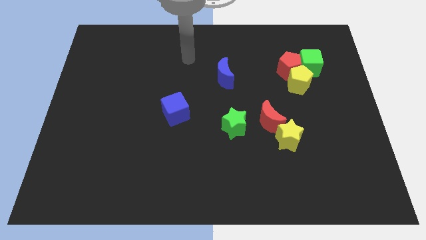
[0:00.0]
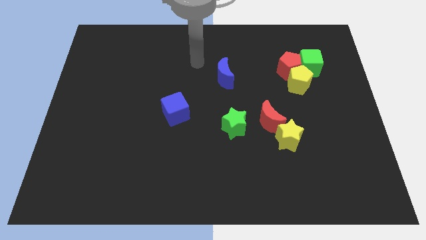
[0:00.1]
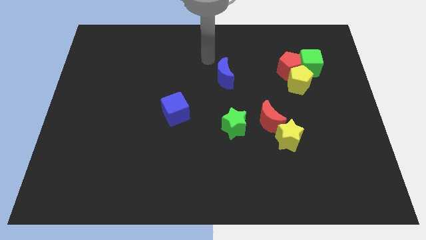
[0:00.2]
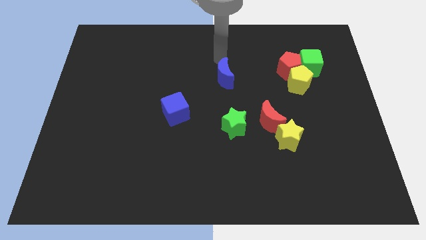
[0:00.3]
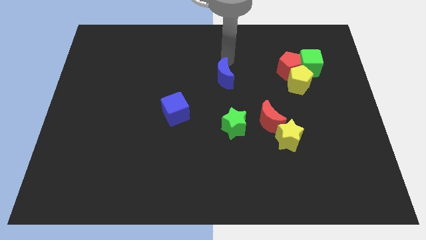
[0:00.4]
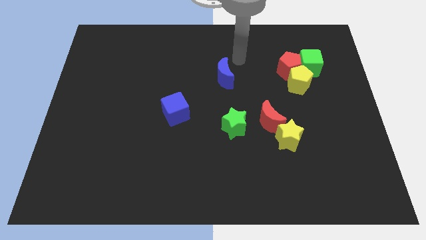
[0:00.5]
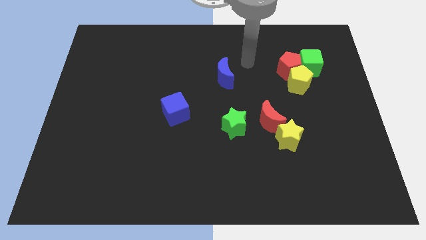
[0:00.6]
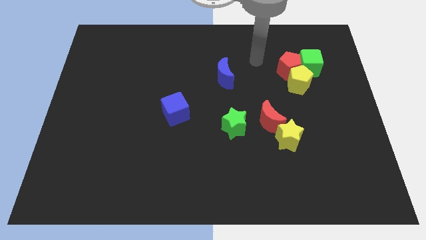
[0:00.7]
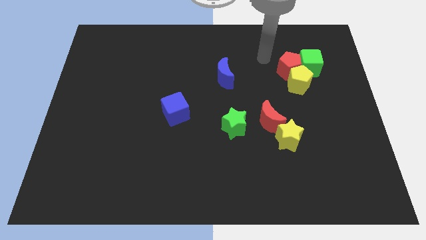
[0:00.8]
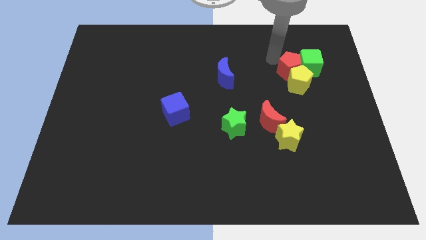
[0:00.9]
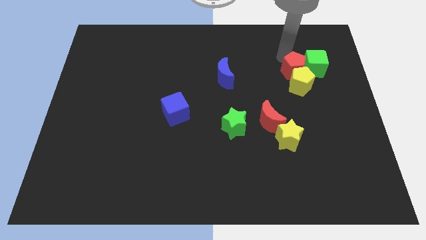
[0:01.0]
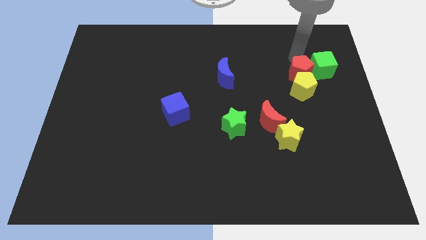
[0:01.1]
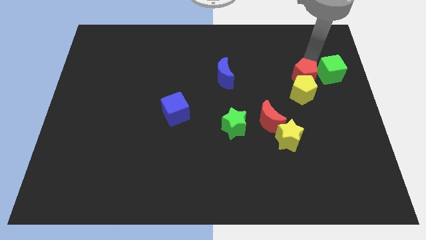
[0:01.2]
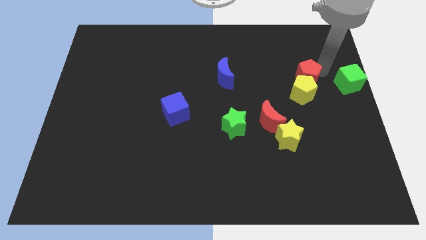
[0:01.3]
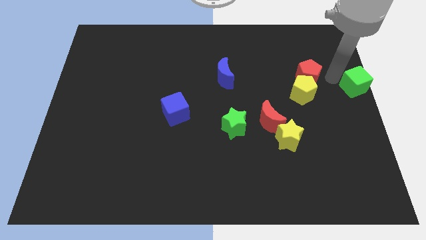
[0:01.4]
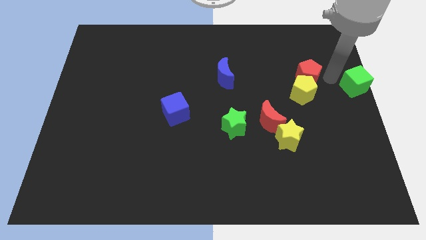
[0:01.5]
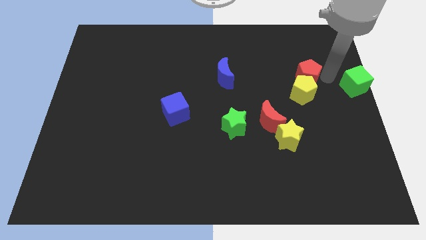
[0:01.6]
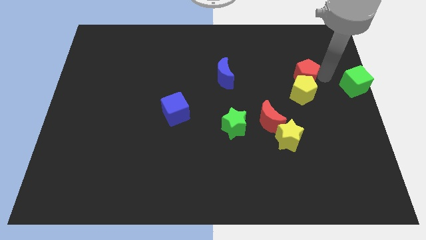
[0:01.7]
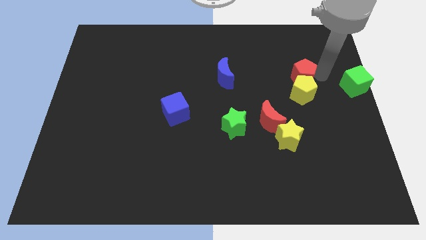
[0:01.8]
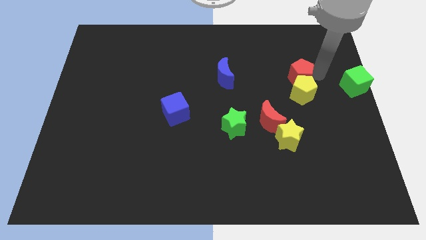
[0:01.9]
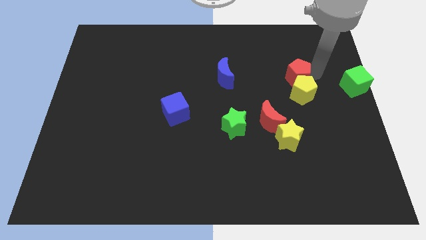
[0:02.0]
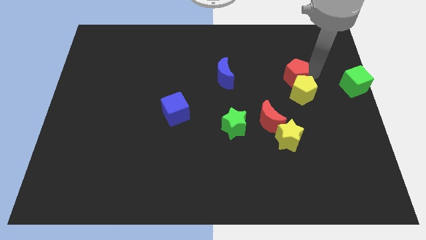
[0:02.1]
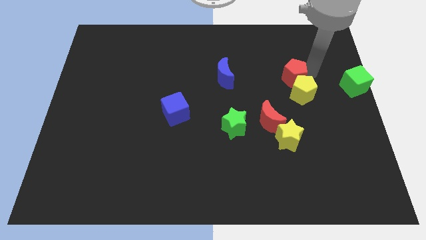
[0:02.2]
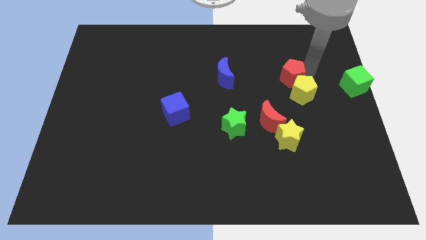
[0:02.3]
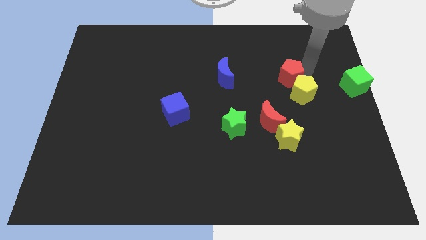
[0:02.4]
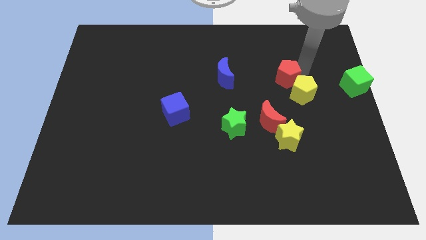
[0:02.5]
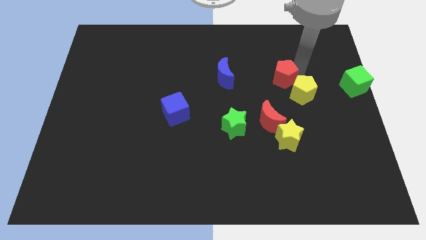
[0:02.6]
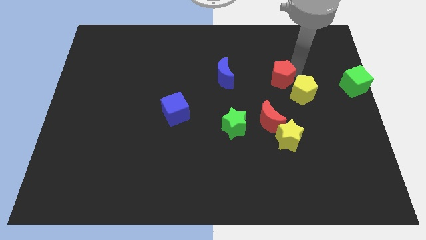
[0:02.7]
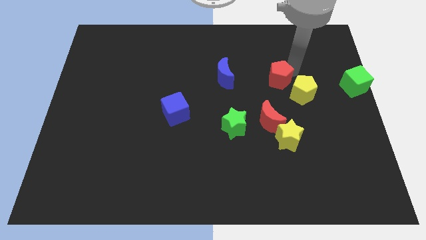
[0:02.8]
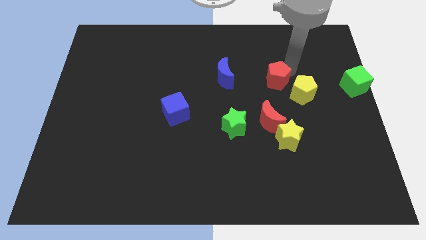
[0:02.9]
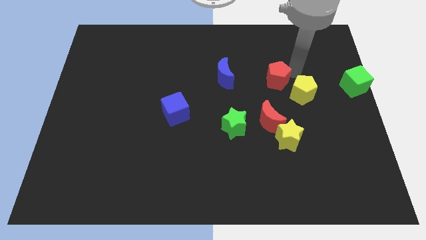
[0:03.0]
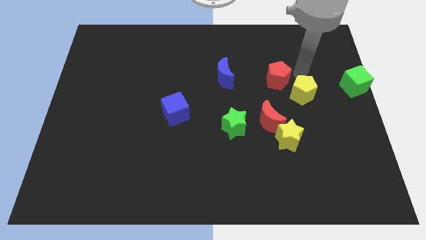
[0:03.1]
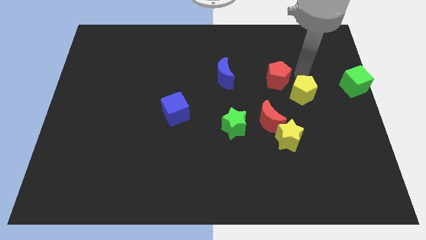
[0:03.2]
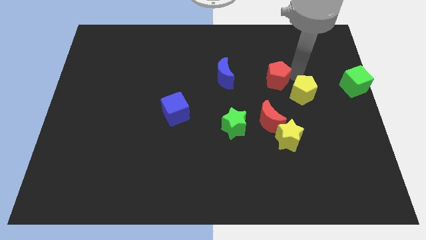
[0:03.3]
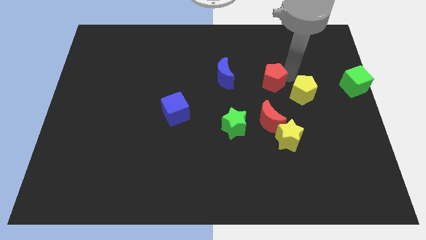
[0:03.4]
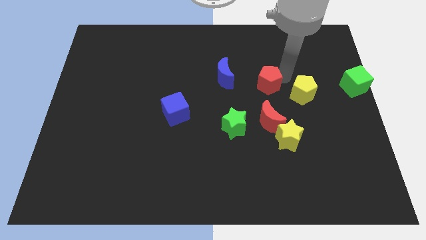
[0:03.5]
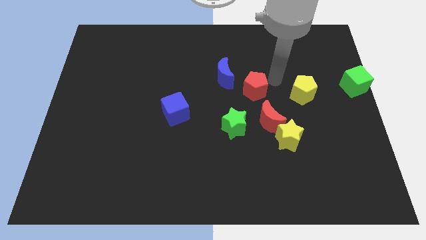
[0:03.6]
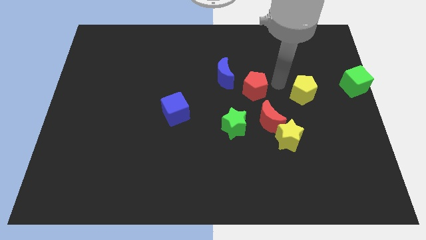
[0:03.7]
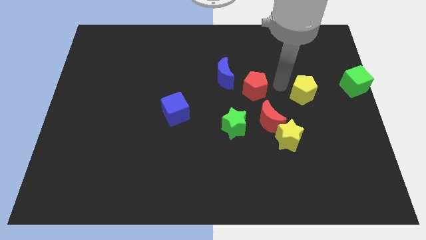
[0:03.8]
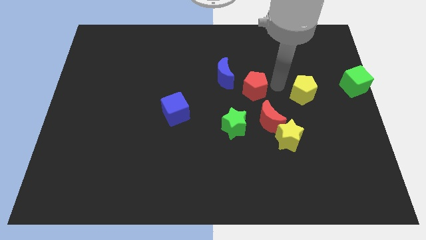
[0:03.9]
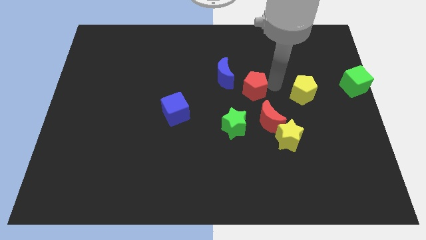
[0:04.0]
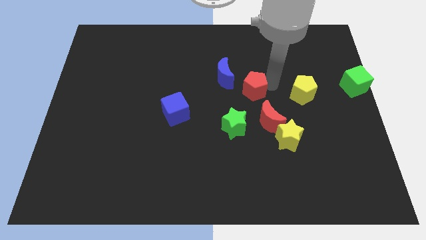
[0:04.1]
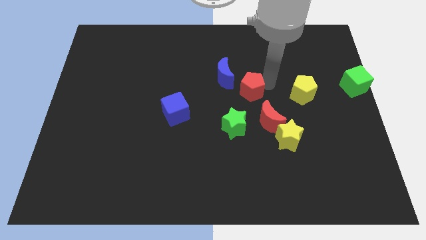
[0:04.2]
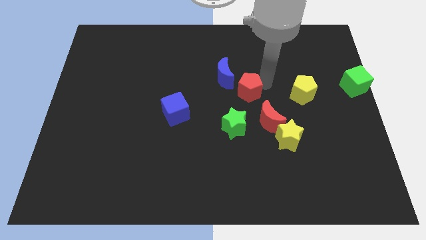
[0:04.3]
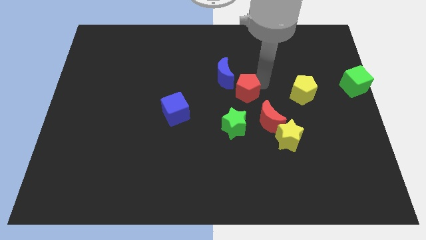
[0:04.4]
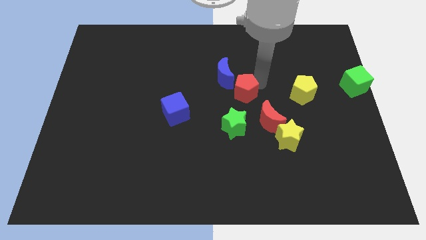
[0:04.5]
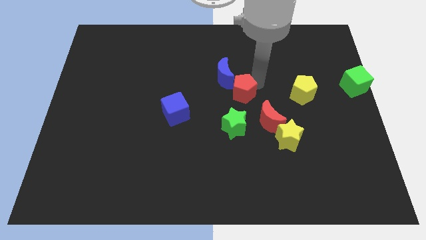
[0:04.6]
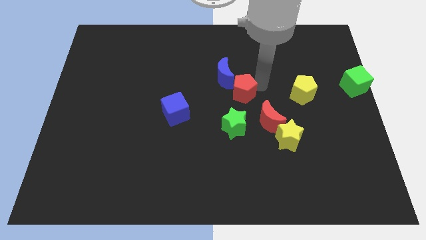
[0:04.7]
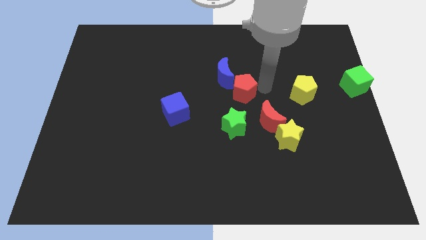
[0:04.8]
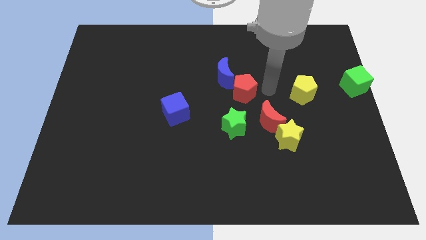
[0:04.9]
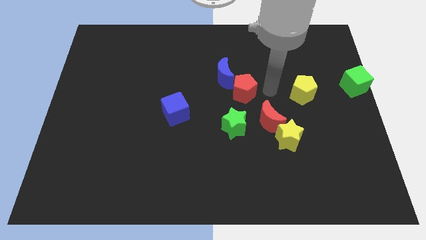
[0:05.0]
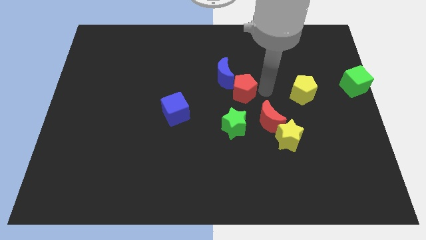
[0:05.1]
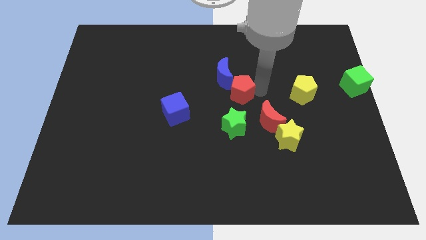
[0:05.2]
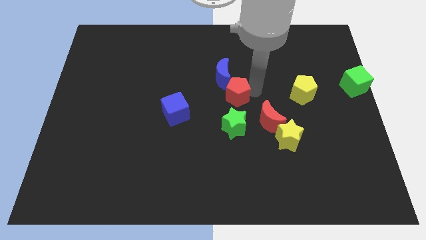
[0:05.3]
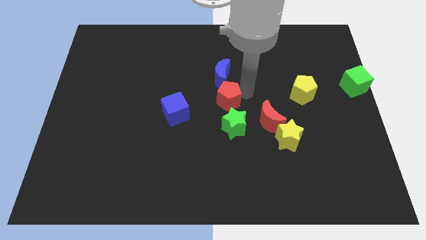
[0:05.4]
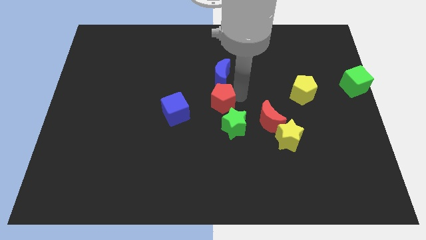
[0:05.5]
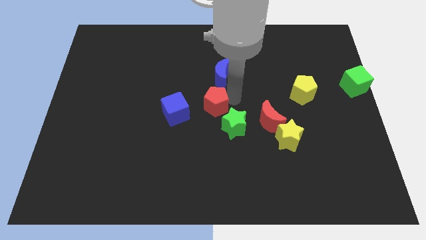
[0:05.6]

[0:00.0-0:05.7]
slide the red pentagon to the bottom left side of the blue moon

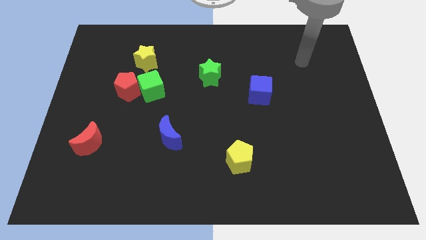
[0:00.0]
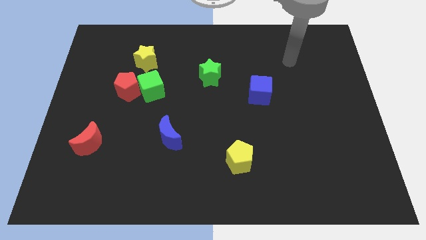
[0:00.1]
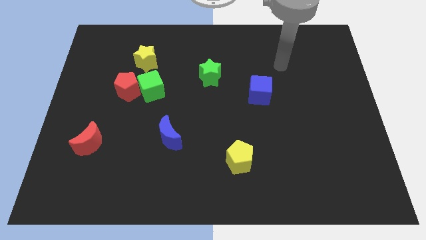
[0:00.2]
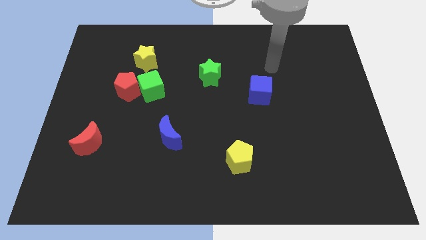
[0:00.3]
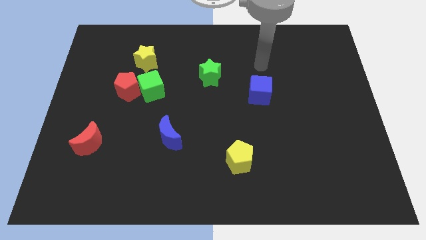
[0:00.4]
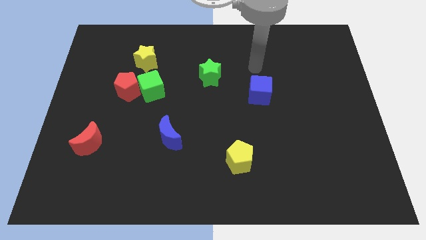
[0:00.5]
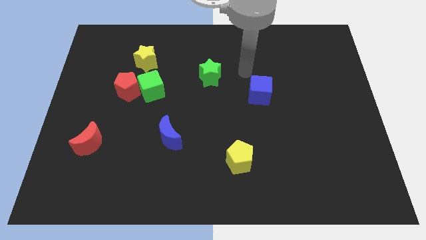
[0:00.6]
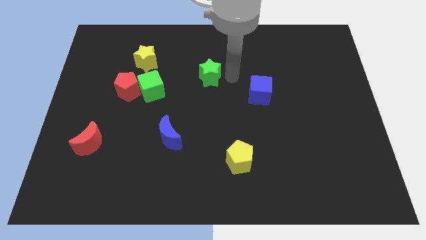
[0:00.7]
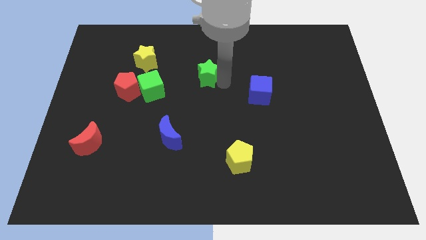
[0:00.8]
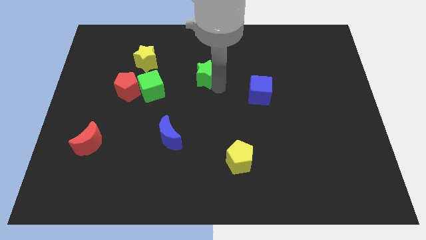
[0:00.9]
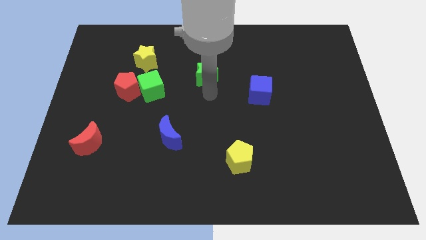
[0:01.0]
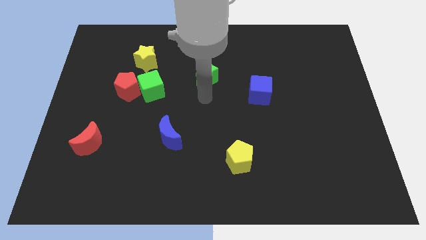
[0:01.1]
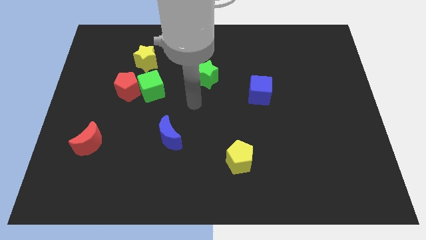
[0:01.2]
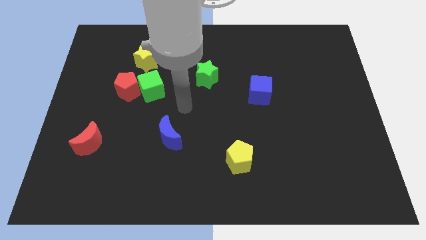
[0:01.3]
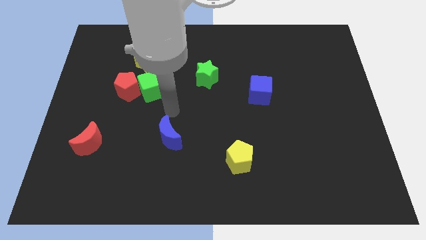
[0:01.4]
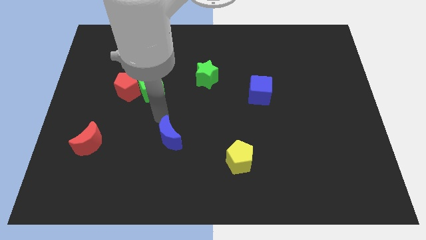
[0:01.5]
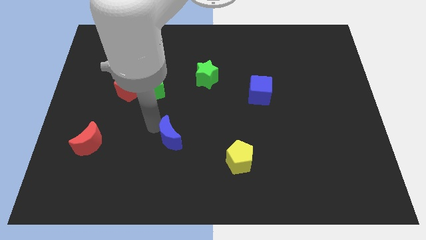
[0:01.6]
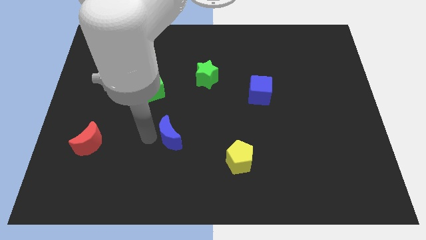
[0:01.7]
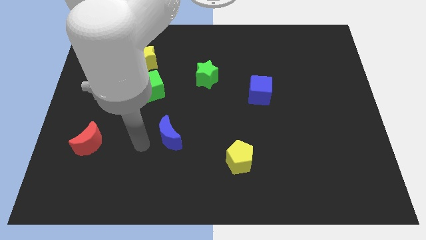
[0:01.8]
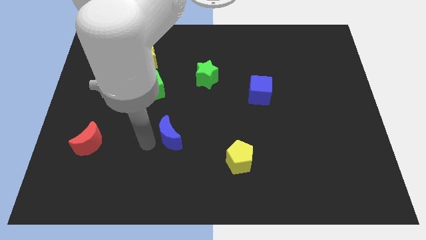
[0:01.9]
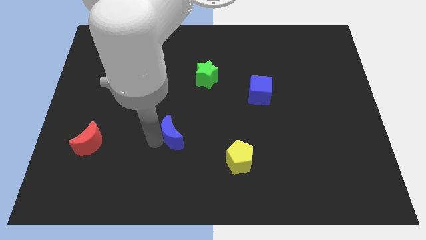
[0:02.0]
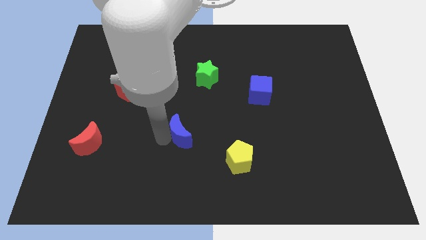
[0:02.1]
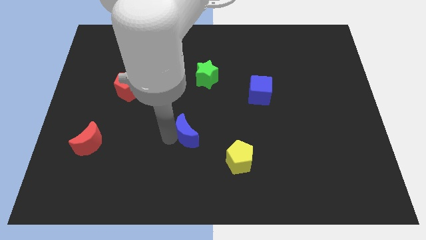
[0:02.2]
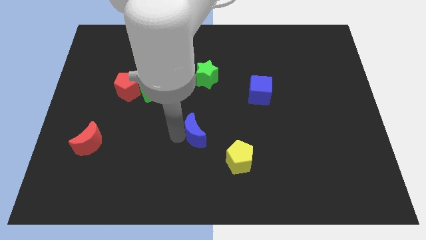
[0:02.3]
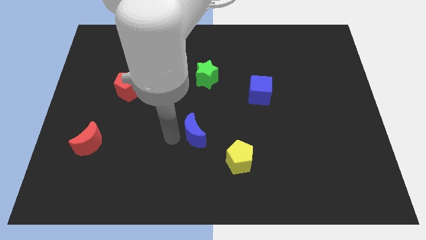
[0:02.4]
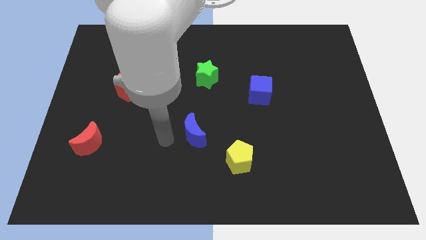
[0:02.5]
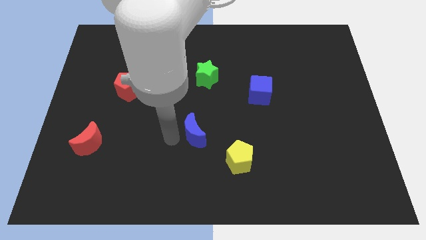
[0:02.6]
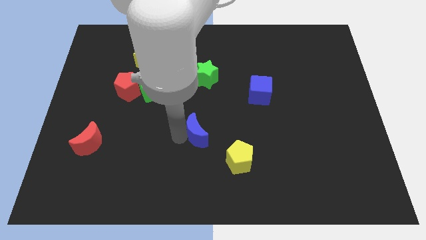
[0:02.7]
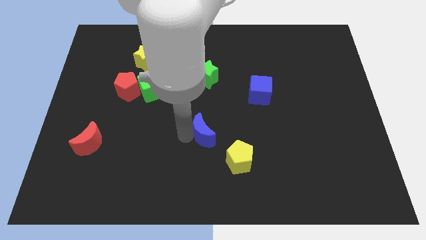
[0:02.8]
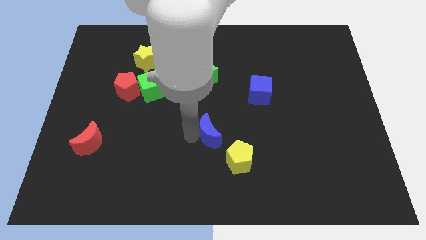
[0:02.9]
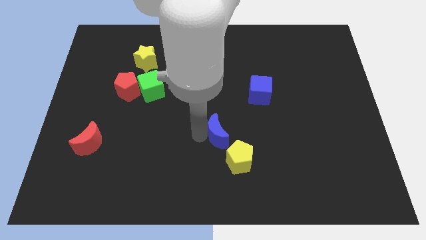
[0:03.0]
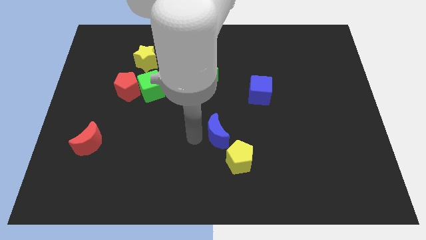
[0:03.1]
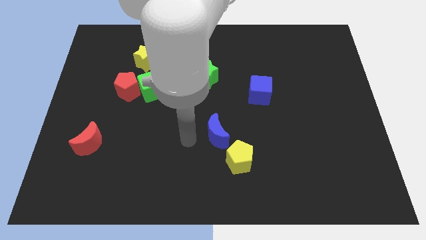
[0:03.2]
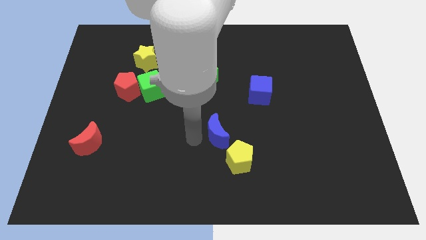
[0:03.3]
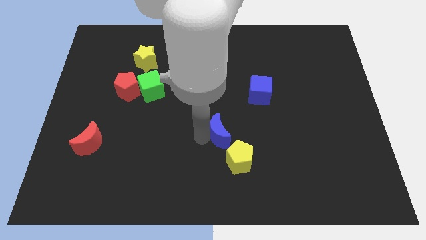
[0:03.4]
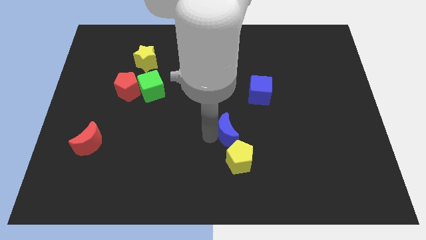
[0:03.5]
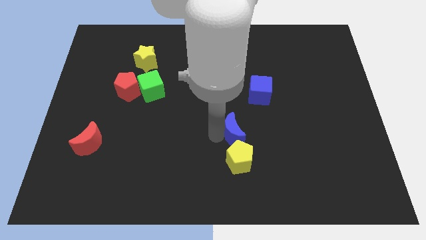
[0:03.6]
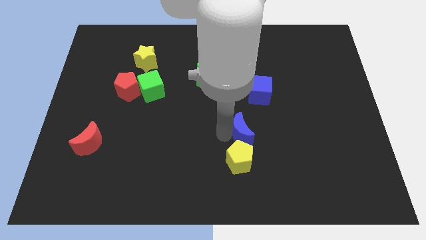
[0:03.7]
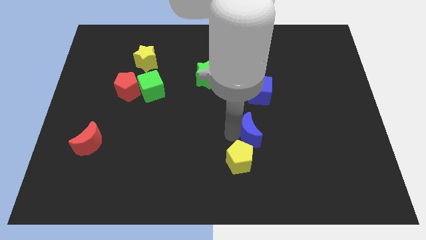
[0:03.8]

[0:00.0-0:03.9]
move the blue moon to the bottom side of the blue cube
